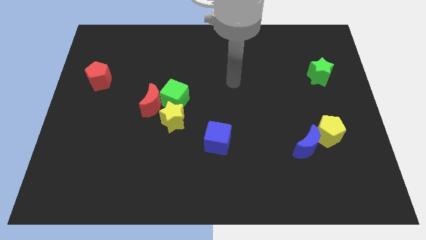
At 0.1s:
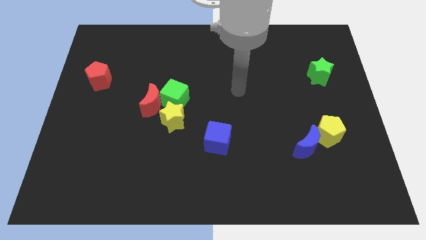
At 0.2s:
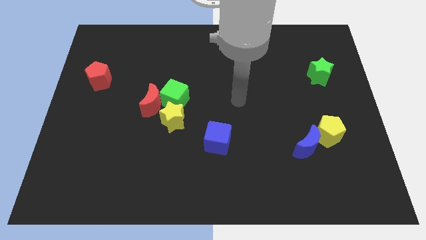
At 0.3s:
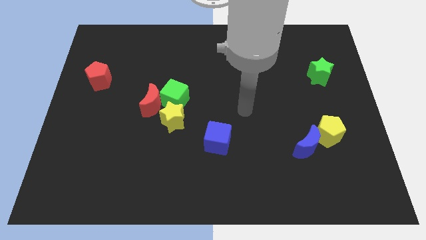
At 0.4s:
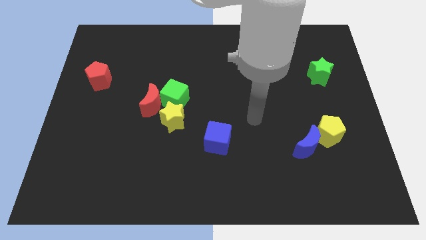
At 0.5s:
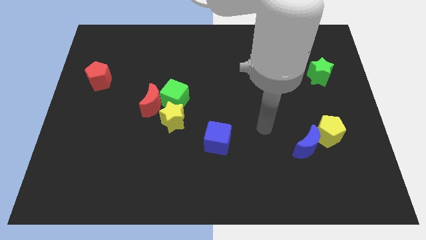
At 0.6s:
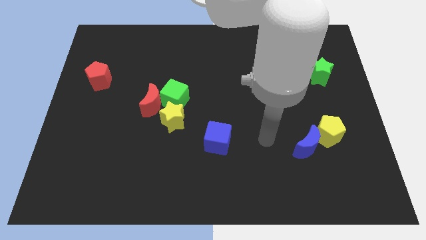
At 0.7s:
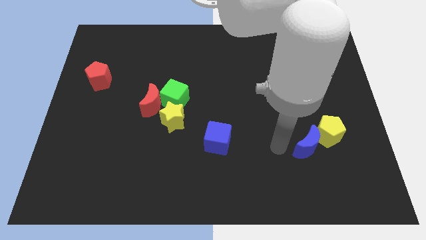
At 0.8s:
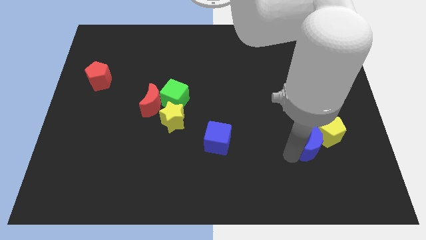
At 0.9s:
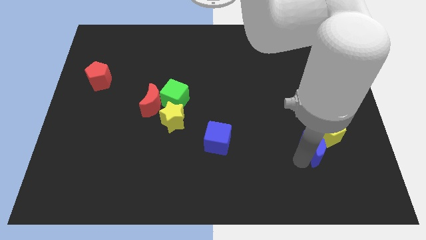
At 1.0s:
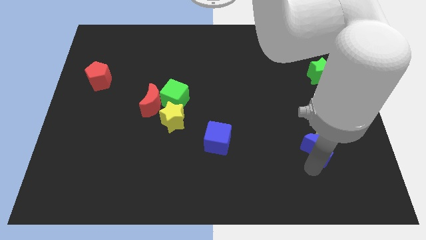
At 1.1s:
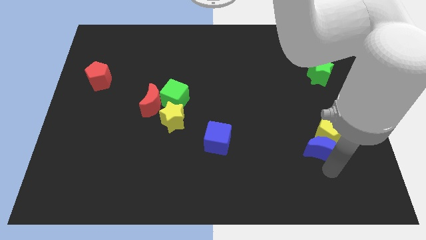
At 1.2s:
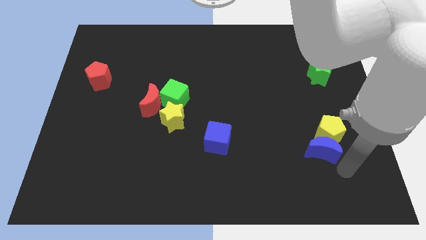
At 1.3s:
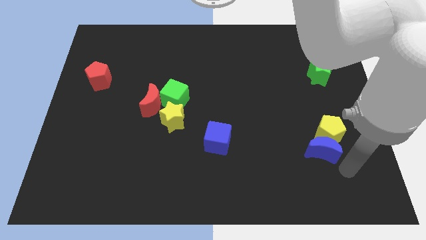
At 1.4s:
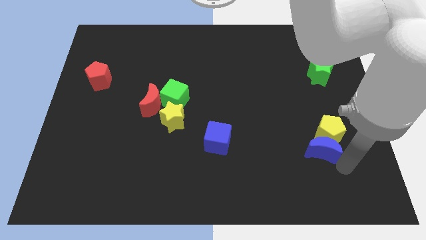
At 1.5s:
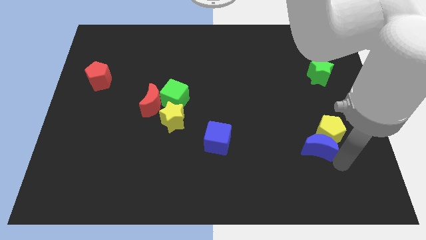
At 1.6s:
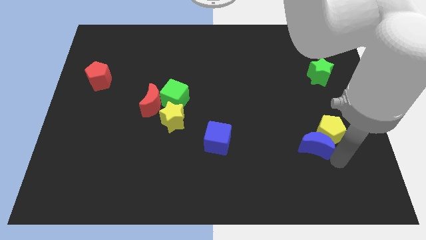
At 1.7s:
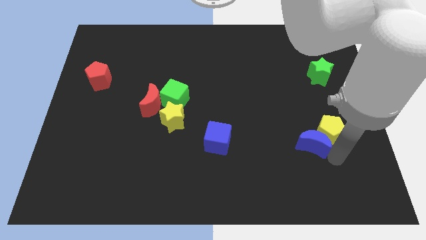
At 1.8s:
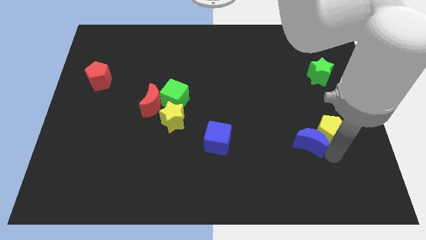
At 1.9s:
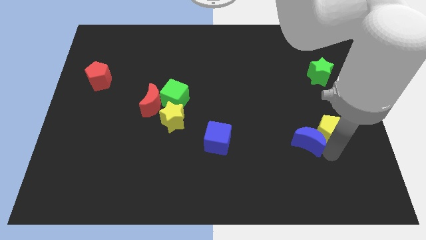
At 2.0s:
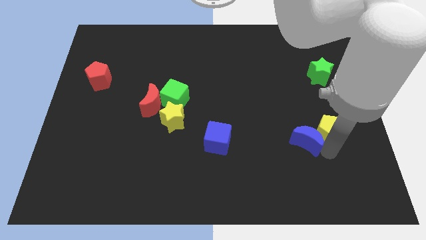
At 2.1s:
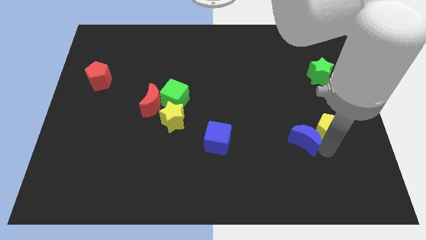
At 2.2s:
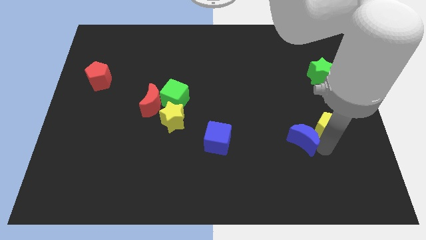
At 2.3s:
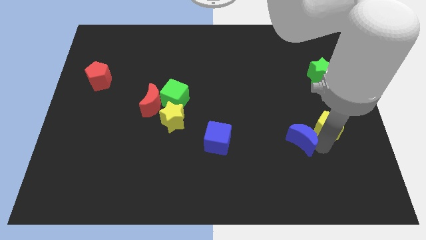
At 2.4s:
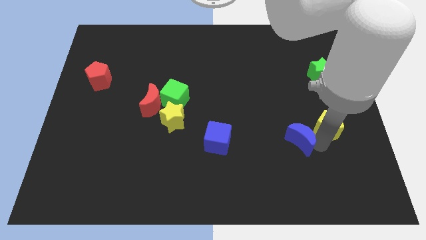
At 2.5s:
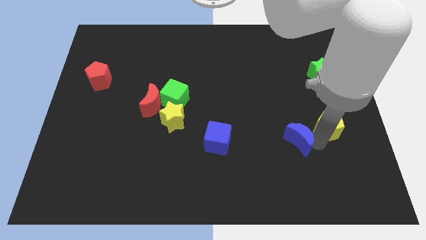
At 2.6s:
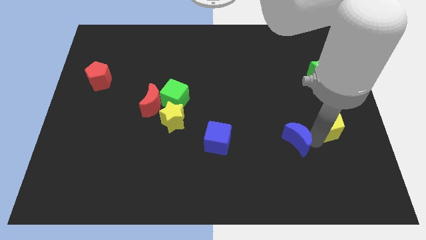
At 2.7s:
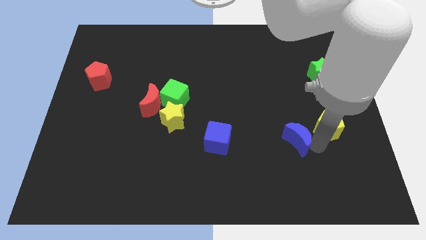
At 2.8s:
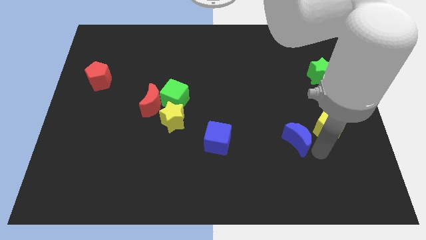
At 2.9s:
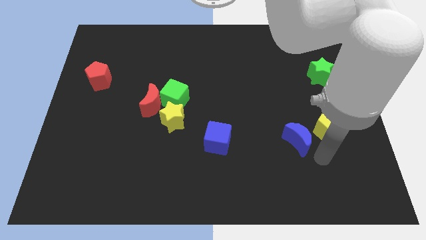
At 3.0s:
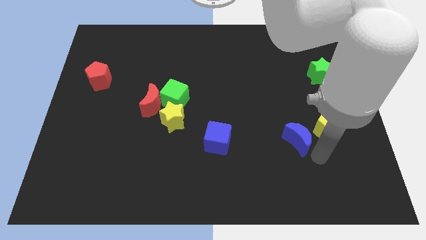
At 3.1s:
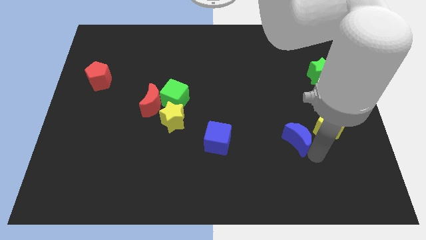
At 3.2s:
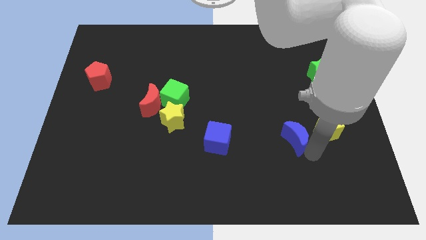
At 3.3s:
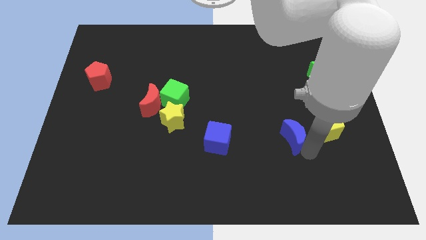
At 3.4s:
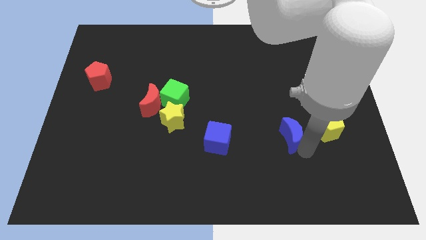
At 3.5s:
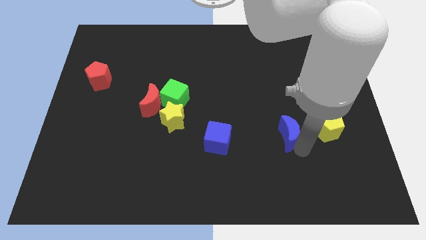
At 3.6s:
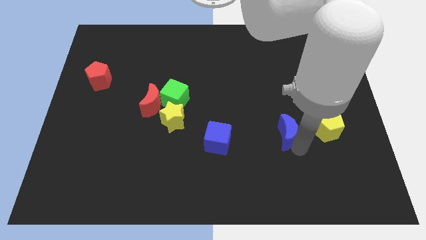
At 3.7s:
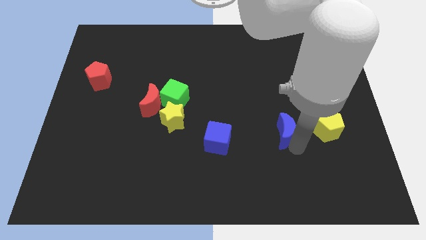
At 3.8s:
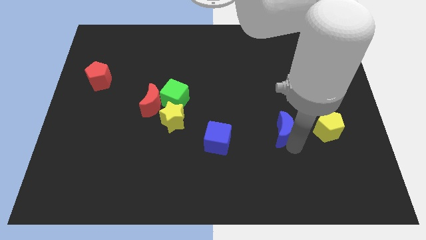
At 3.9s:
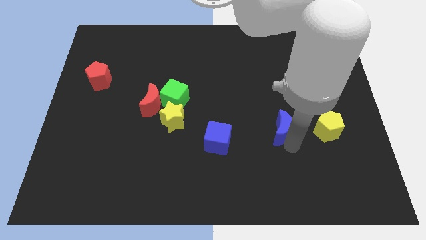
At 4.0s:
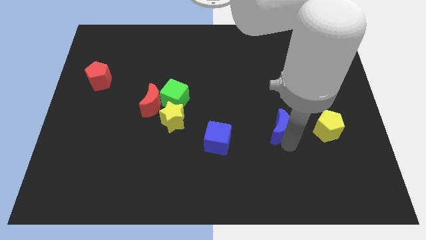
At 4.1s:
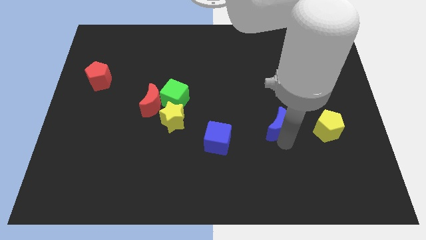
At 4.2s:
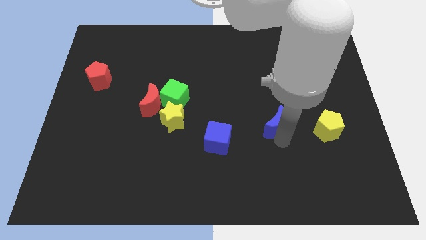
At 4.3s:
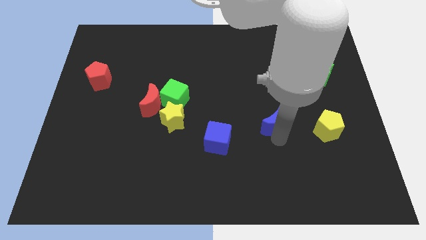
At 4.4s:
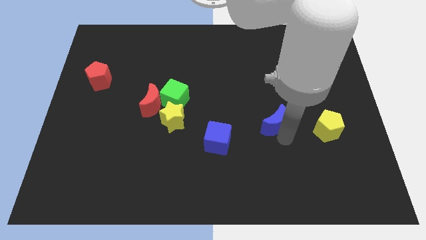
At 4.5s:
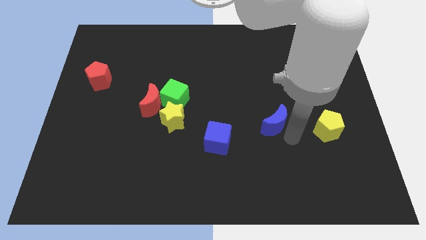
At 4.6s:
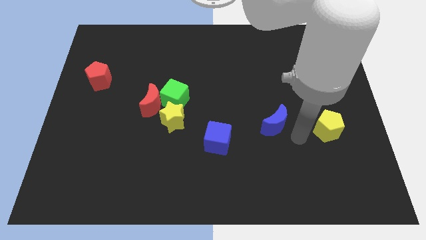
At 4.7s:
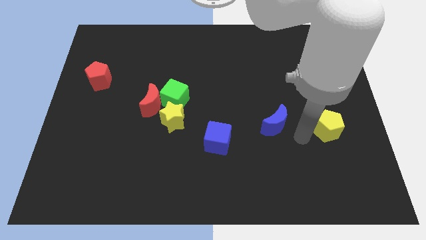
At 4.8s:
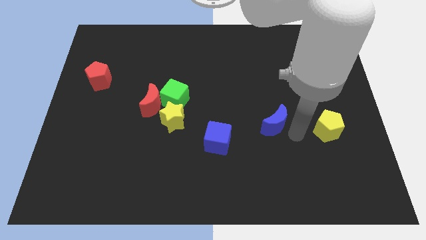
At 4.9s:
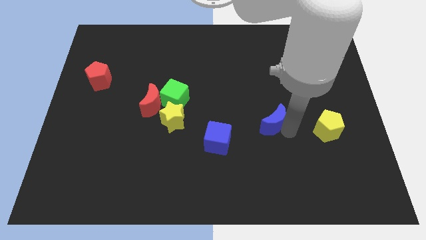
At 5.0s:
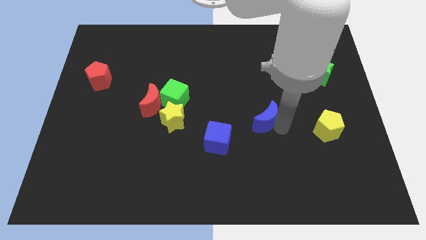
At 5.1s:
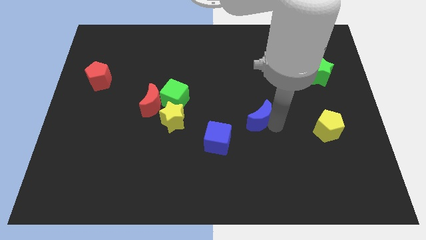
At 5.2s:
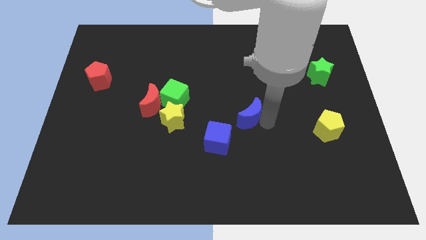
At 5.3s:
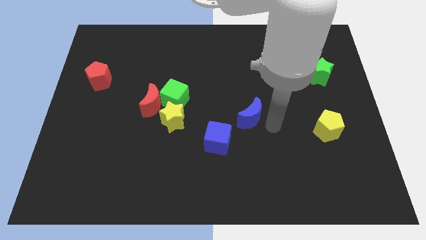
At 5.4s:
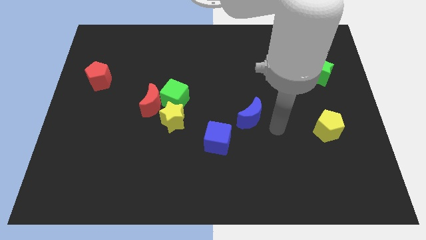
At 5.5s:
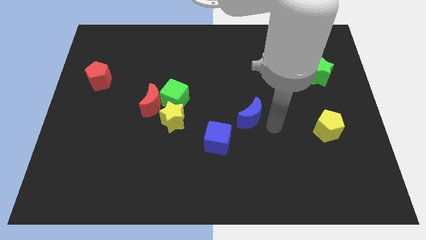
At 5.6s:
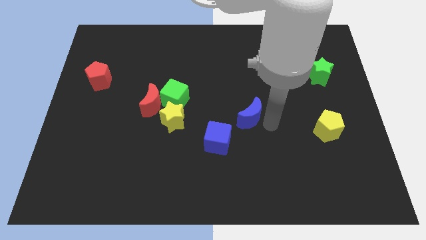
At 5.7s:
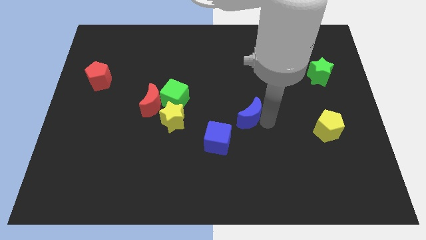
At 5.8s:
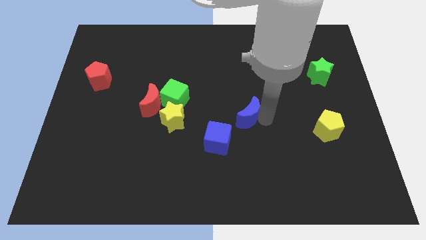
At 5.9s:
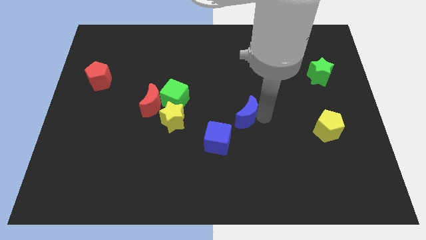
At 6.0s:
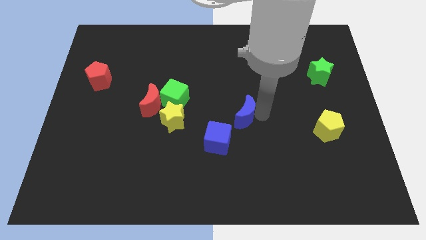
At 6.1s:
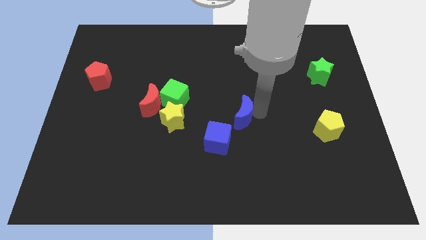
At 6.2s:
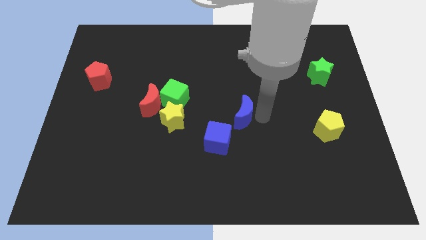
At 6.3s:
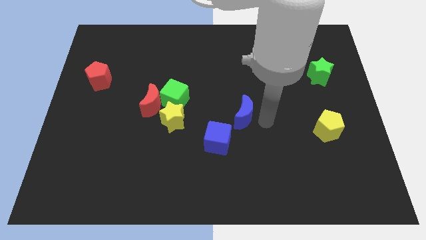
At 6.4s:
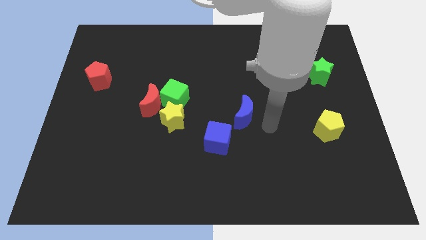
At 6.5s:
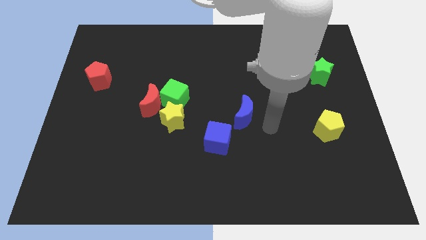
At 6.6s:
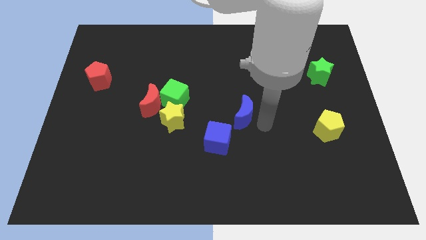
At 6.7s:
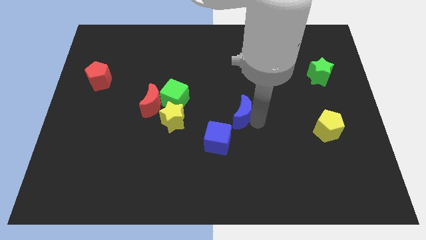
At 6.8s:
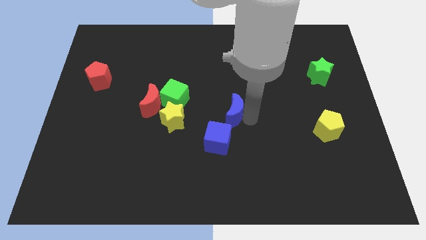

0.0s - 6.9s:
put the blue moon above the blue cube

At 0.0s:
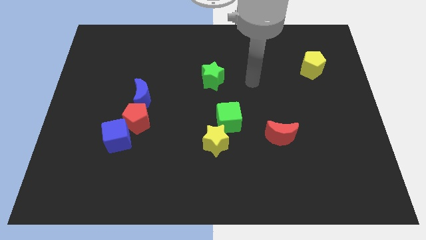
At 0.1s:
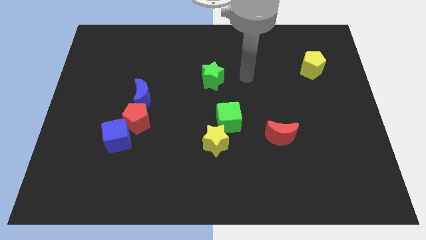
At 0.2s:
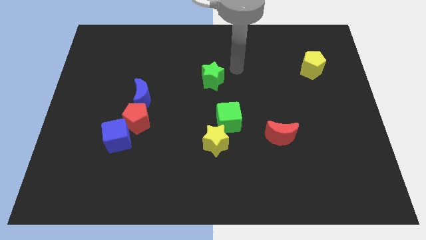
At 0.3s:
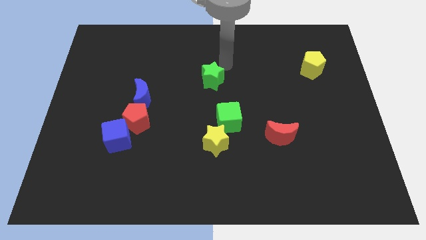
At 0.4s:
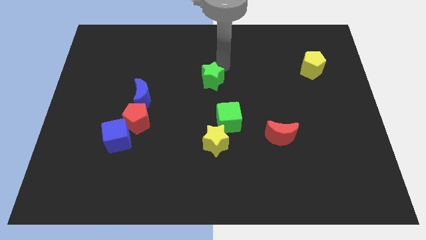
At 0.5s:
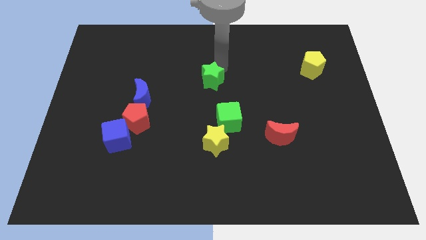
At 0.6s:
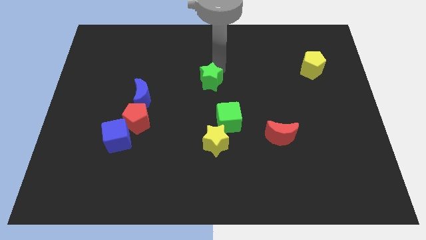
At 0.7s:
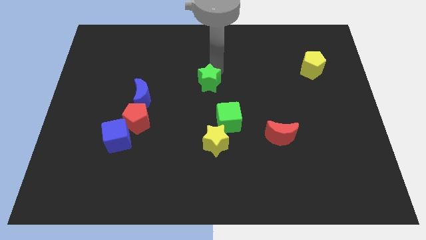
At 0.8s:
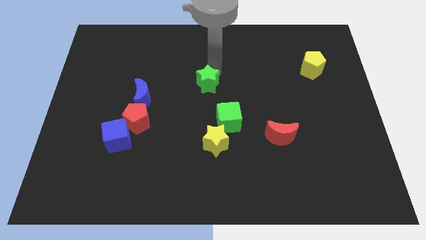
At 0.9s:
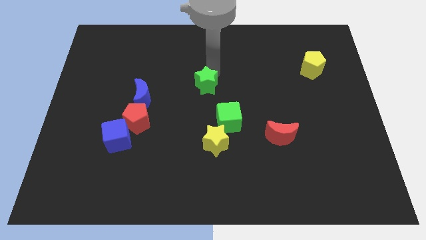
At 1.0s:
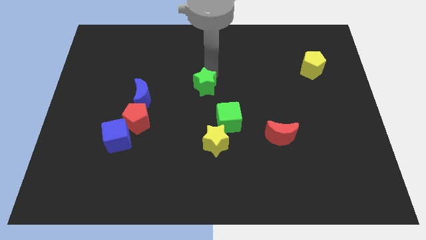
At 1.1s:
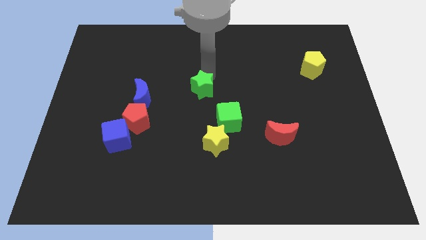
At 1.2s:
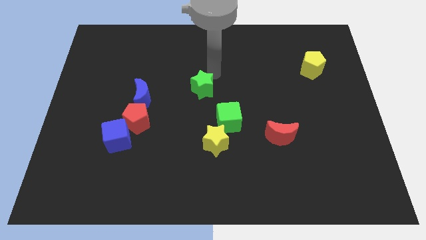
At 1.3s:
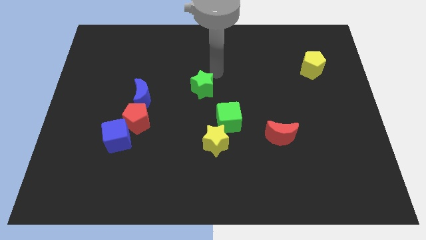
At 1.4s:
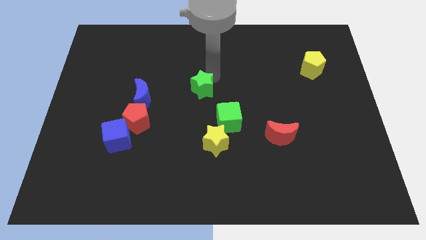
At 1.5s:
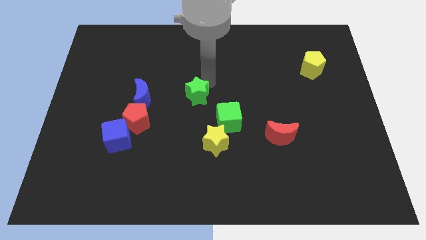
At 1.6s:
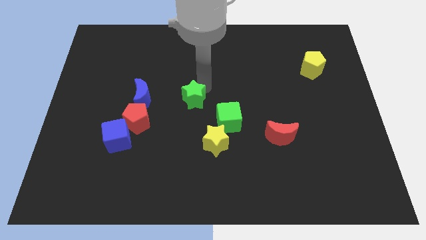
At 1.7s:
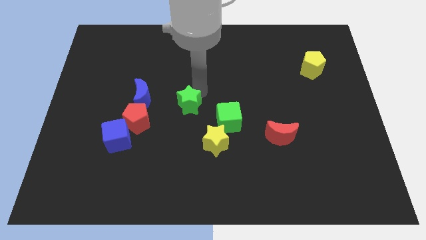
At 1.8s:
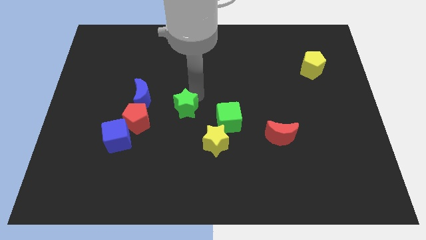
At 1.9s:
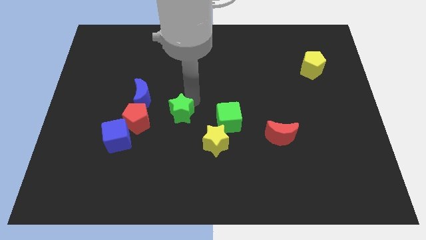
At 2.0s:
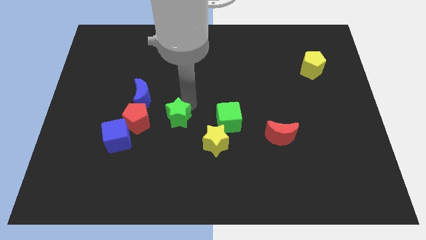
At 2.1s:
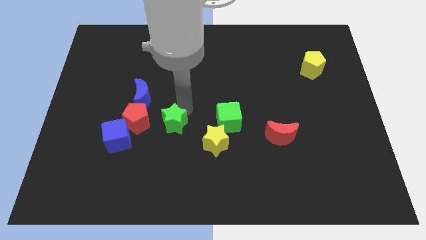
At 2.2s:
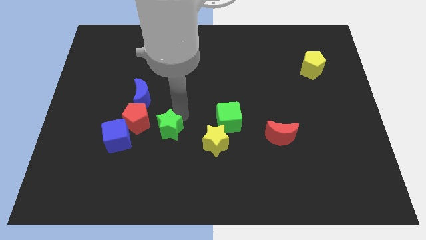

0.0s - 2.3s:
slide the green star to the bottom right of the red pentagon
